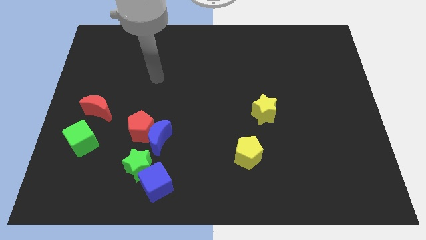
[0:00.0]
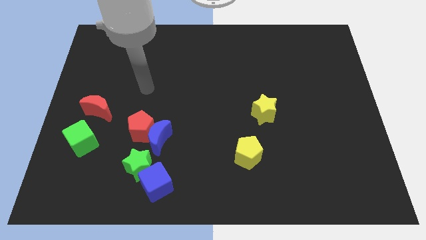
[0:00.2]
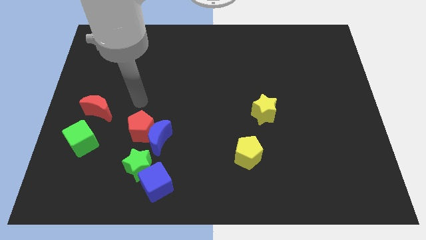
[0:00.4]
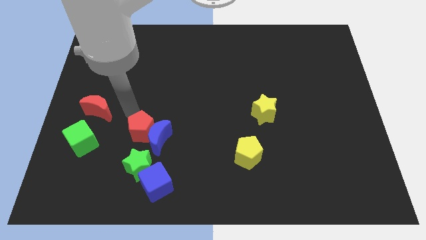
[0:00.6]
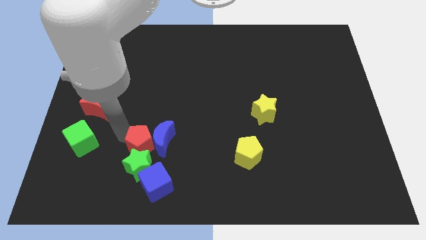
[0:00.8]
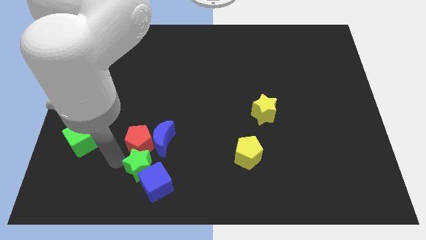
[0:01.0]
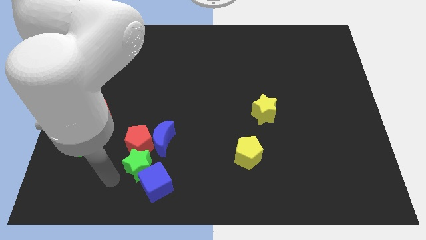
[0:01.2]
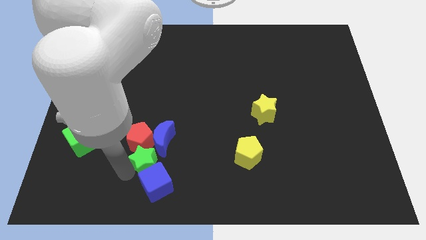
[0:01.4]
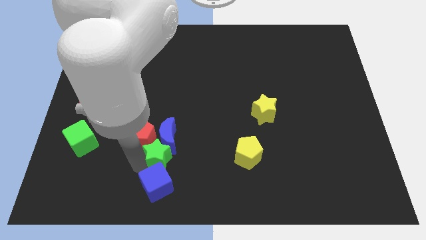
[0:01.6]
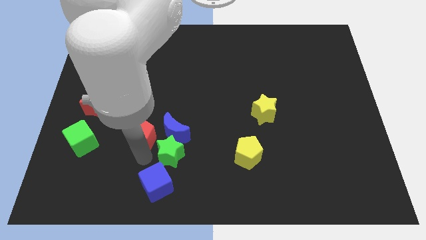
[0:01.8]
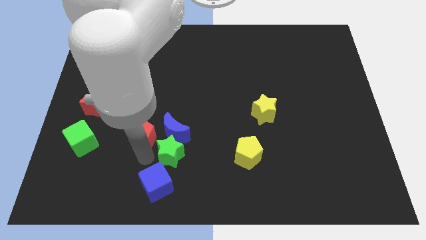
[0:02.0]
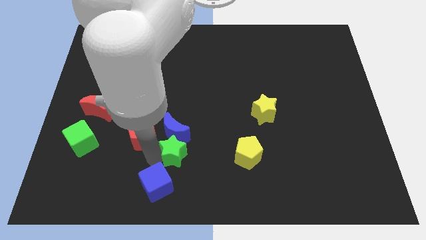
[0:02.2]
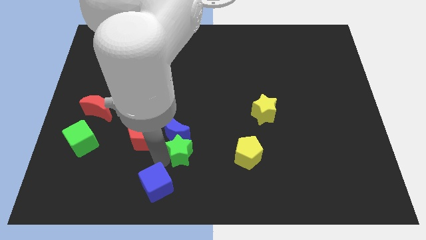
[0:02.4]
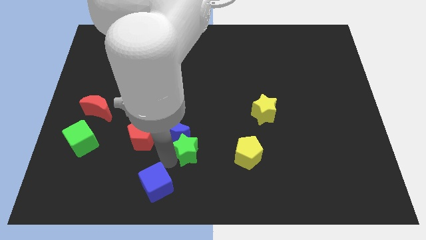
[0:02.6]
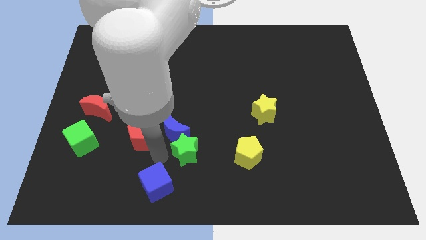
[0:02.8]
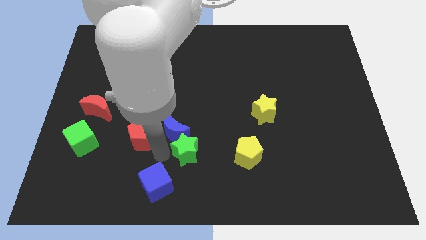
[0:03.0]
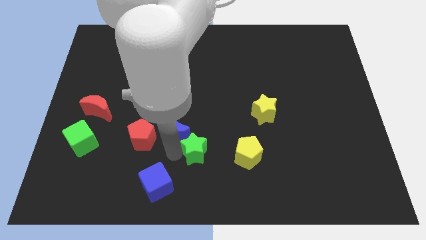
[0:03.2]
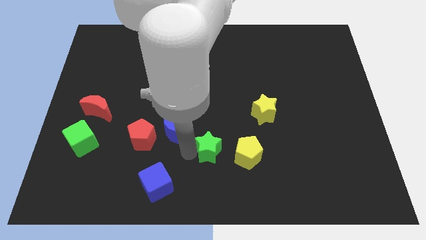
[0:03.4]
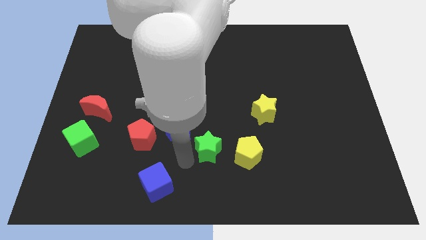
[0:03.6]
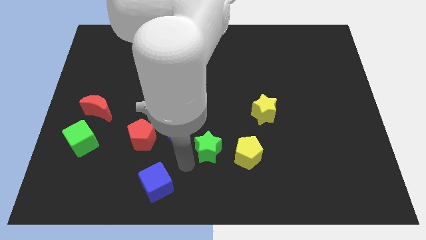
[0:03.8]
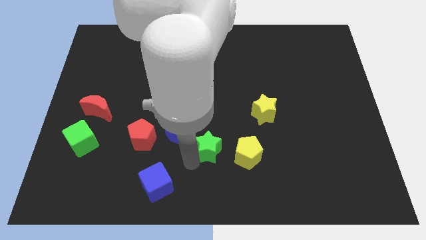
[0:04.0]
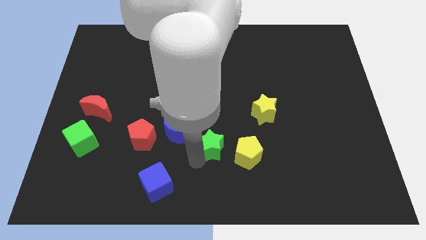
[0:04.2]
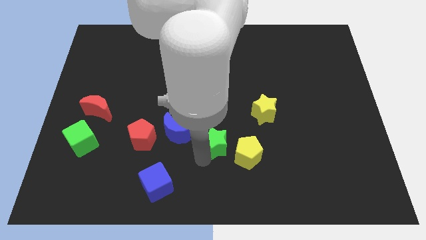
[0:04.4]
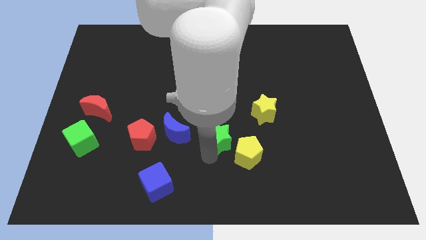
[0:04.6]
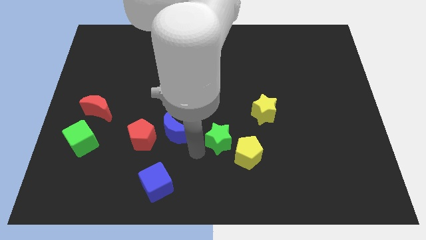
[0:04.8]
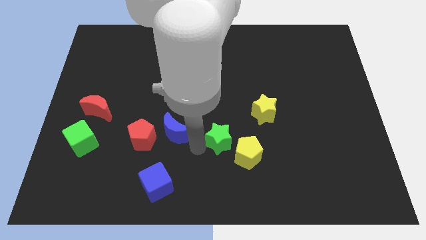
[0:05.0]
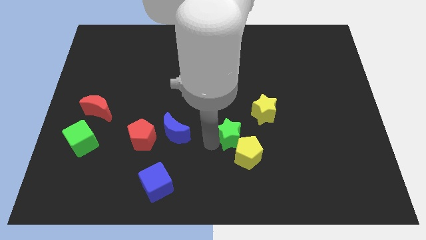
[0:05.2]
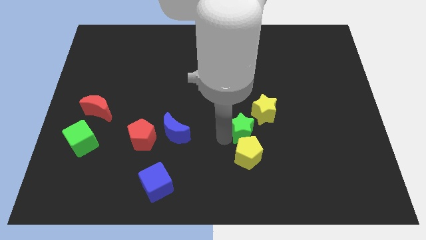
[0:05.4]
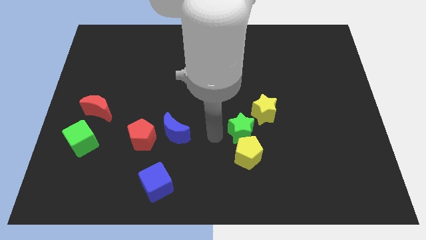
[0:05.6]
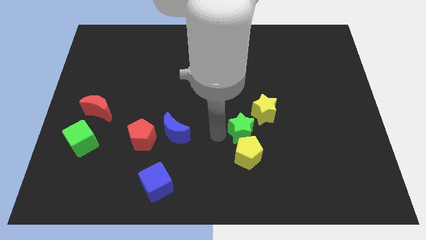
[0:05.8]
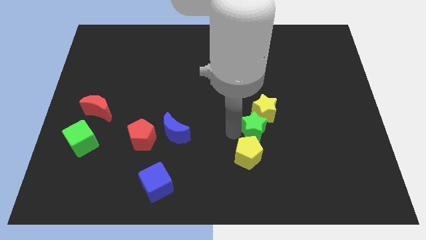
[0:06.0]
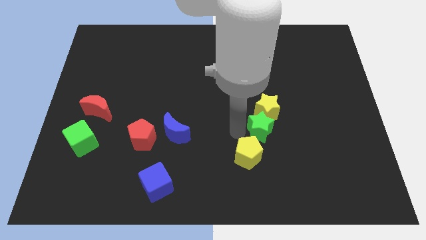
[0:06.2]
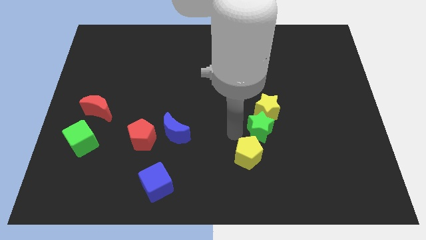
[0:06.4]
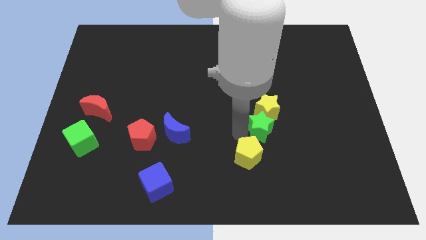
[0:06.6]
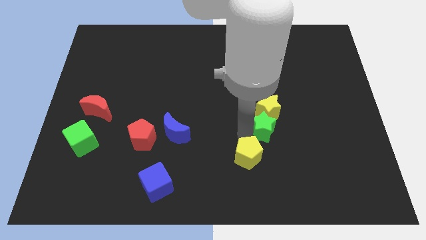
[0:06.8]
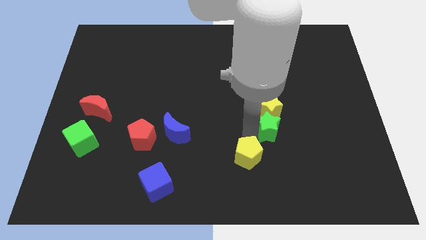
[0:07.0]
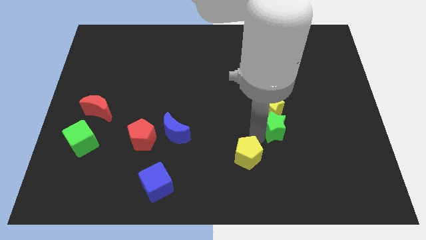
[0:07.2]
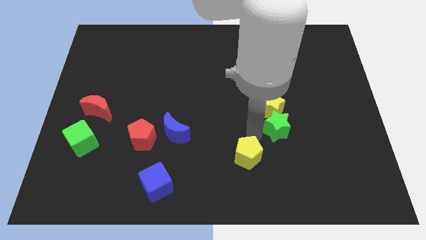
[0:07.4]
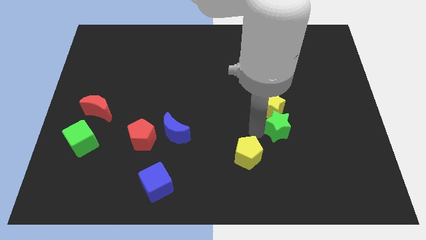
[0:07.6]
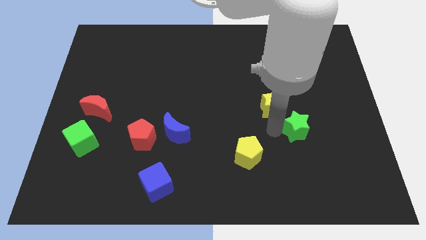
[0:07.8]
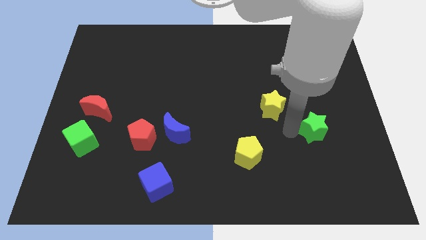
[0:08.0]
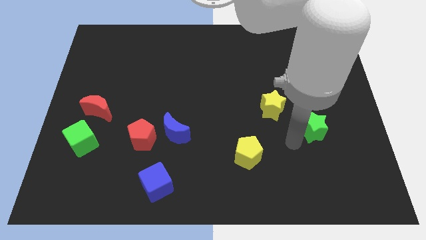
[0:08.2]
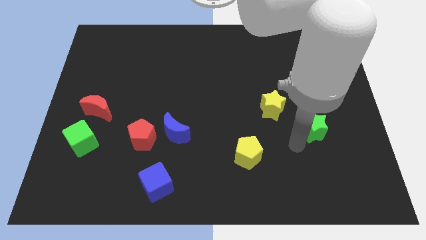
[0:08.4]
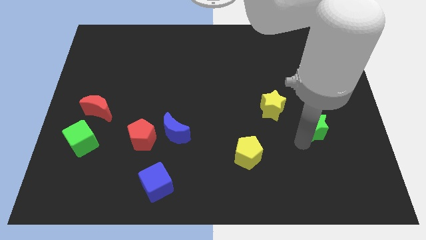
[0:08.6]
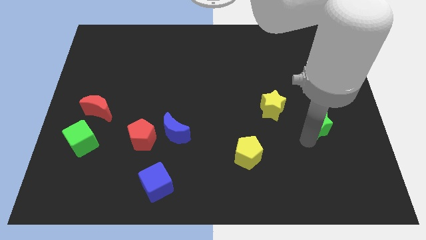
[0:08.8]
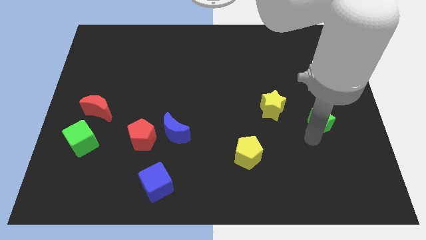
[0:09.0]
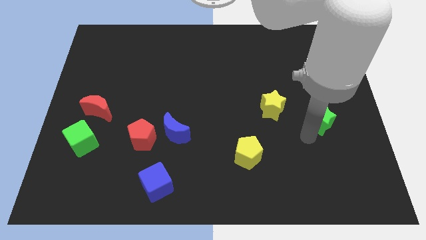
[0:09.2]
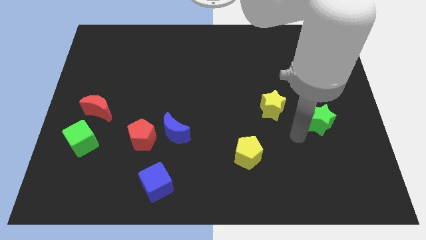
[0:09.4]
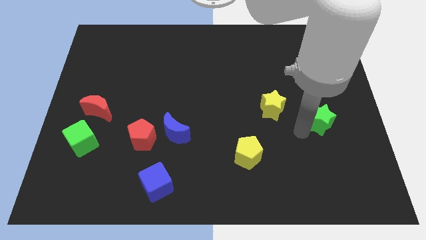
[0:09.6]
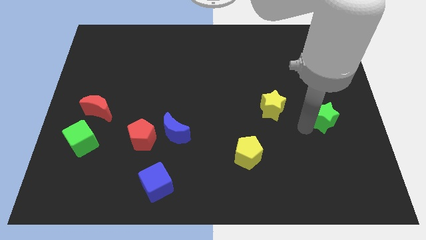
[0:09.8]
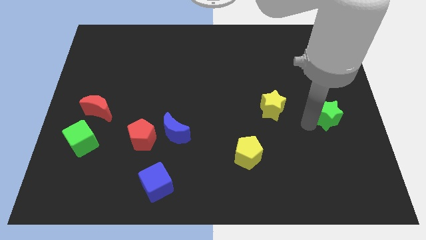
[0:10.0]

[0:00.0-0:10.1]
put the green star to the right side of the board

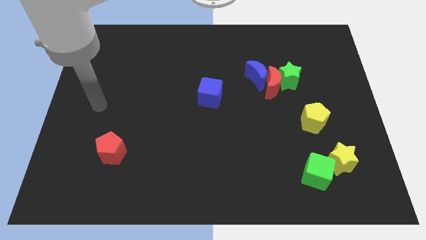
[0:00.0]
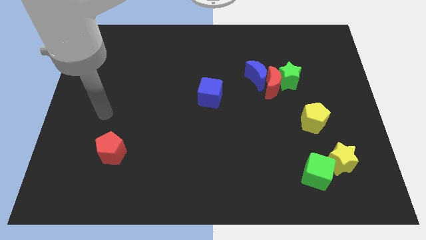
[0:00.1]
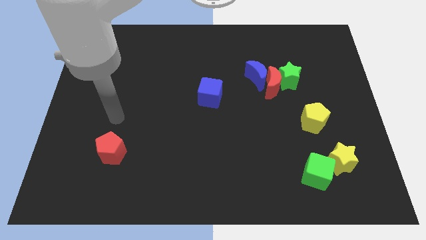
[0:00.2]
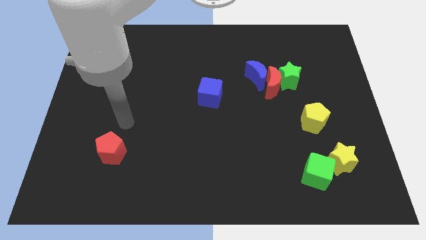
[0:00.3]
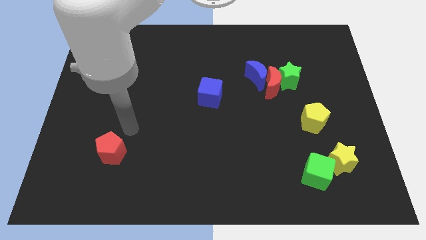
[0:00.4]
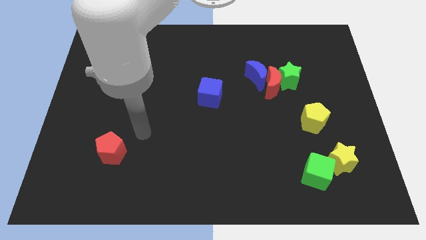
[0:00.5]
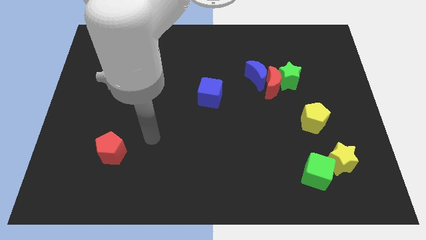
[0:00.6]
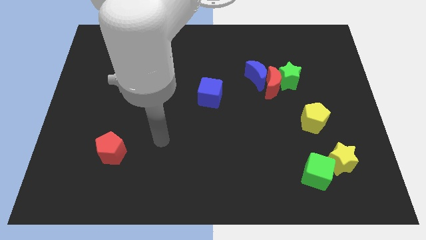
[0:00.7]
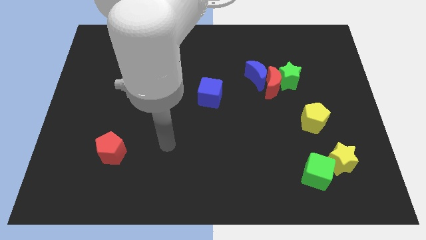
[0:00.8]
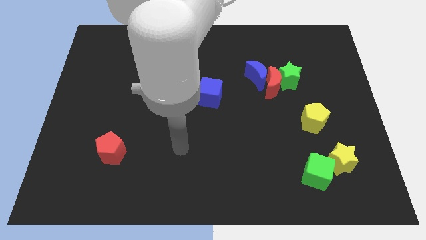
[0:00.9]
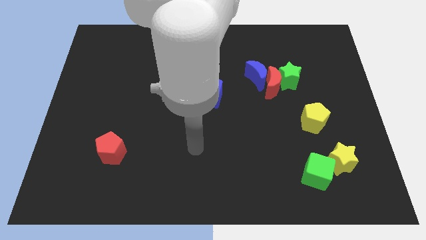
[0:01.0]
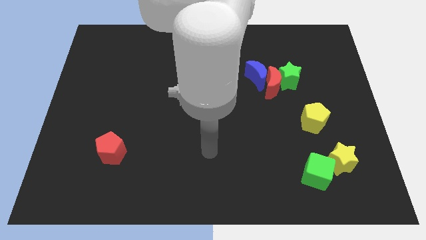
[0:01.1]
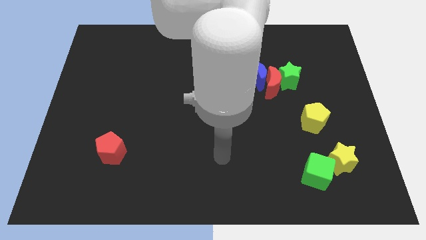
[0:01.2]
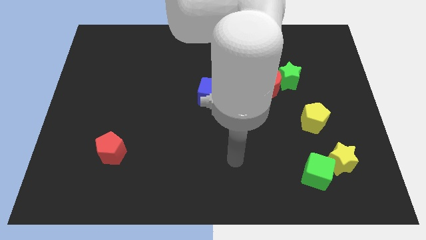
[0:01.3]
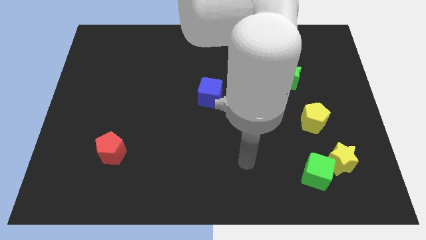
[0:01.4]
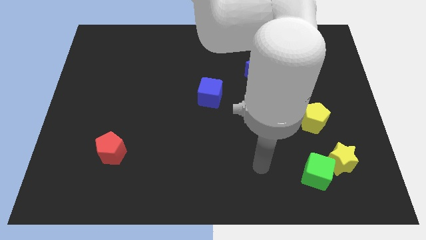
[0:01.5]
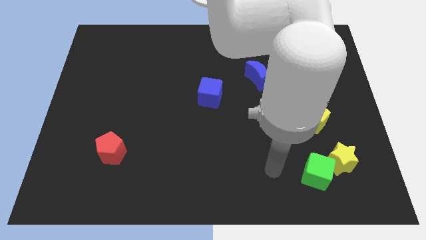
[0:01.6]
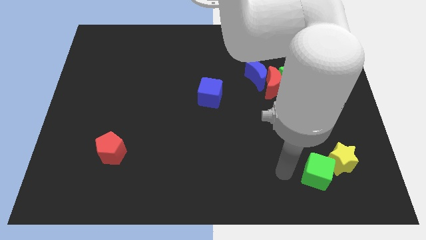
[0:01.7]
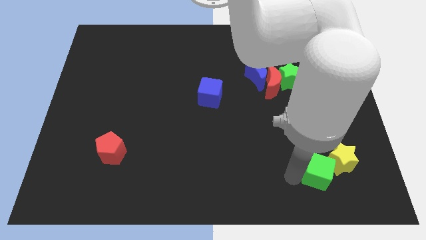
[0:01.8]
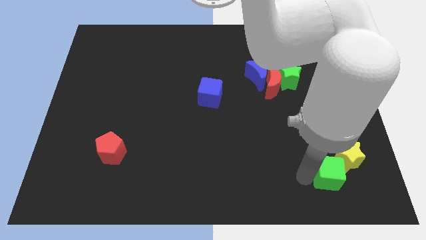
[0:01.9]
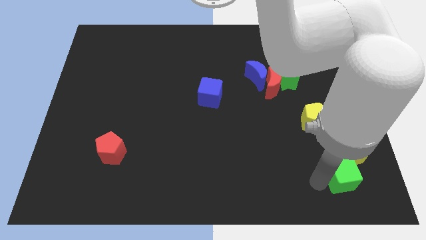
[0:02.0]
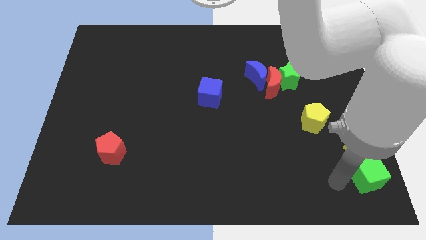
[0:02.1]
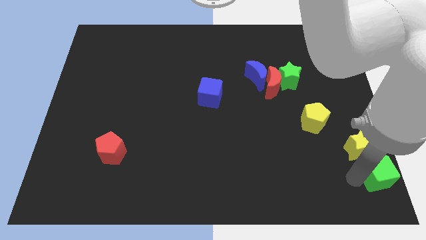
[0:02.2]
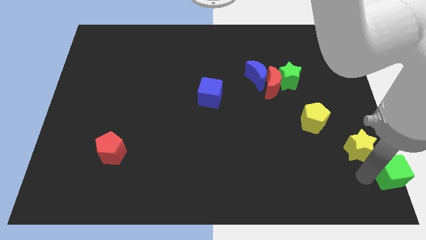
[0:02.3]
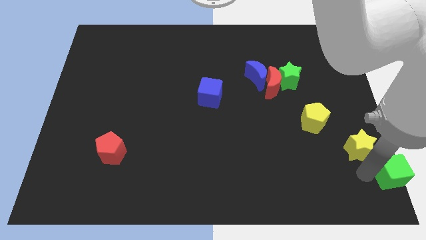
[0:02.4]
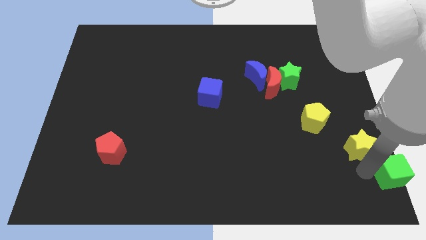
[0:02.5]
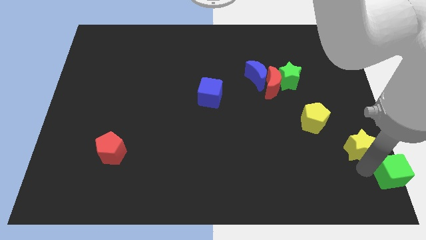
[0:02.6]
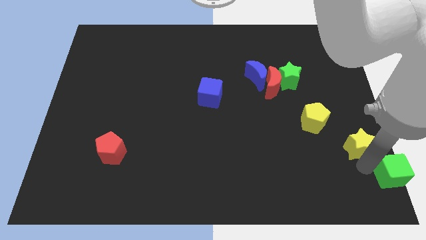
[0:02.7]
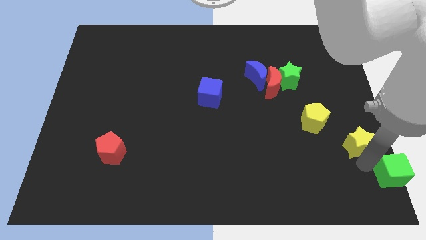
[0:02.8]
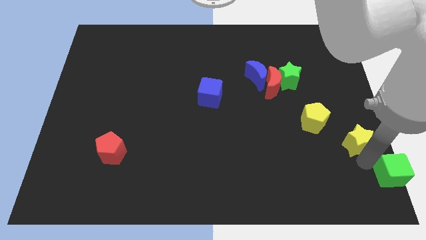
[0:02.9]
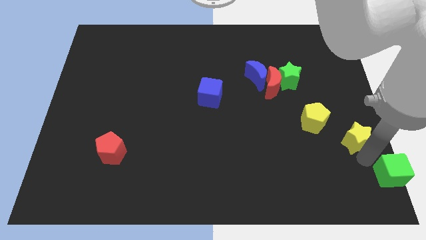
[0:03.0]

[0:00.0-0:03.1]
put the yellow star to the right side
